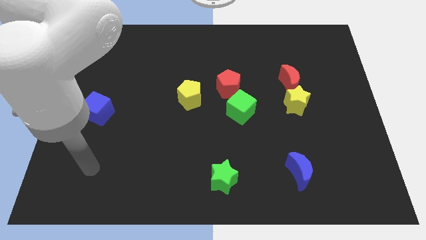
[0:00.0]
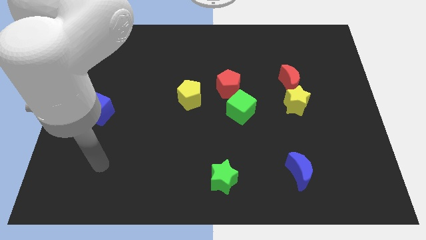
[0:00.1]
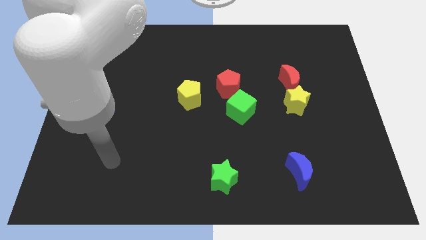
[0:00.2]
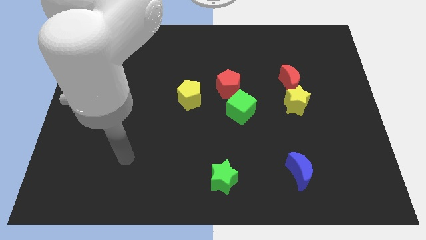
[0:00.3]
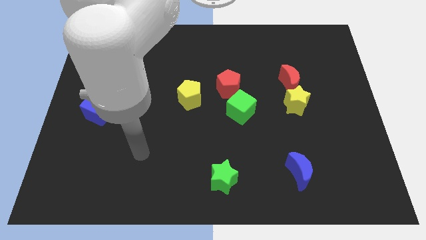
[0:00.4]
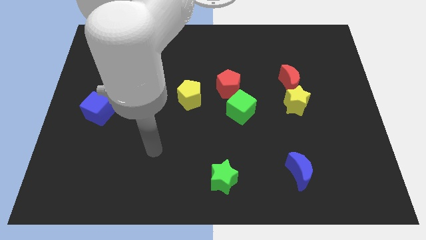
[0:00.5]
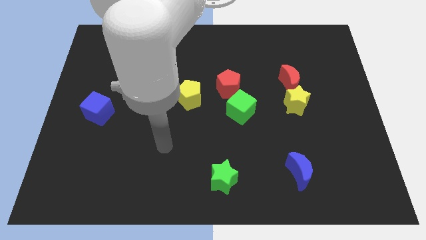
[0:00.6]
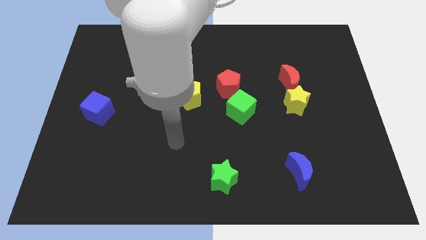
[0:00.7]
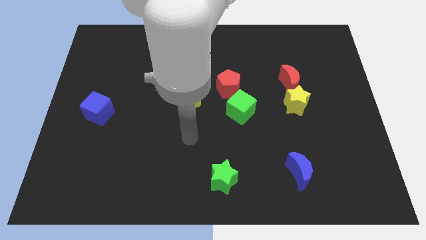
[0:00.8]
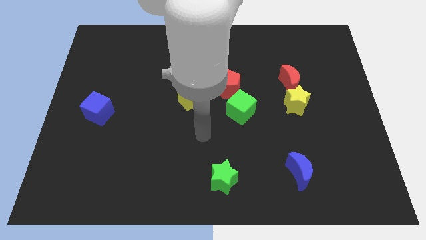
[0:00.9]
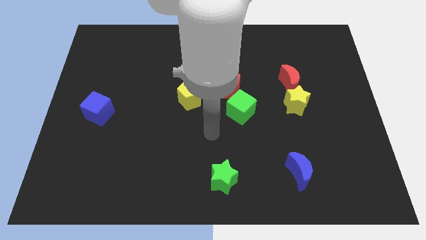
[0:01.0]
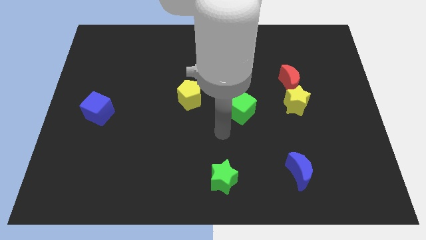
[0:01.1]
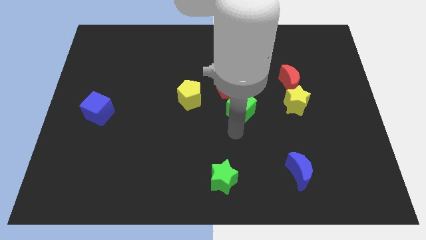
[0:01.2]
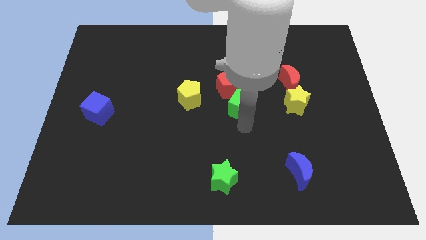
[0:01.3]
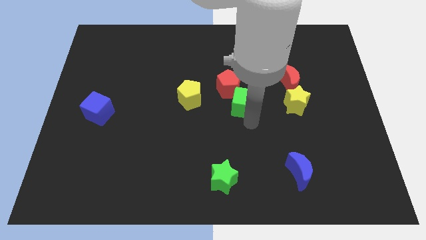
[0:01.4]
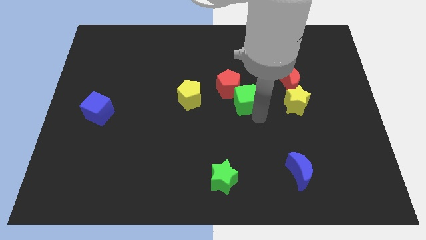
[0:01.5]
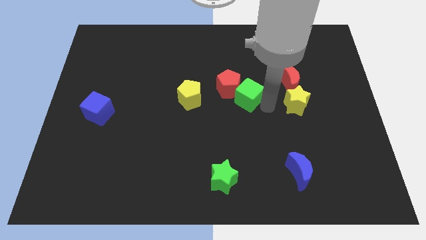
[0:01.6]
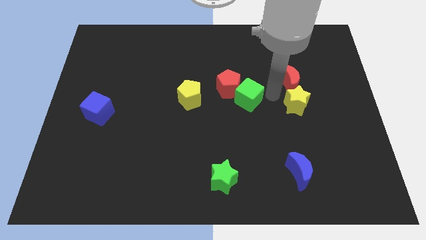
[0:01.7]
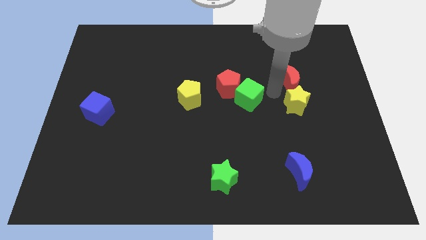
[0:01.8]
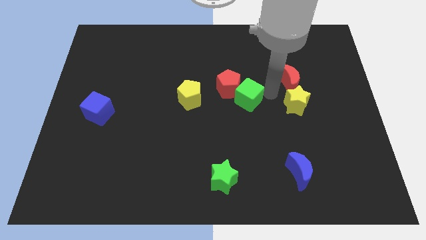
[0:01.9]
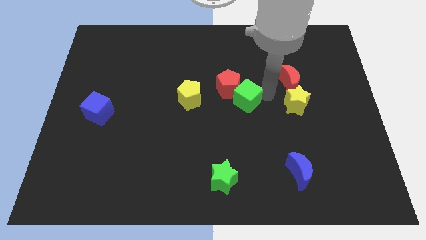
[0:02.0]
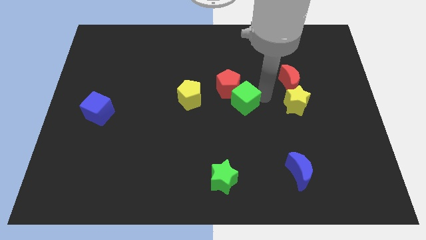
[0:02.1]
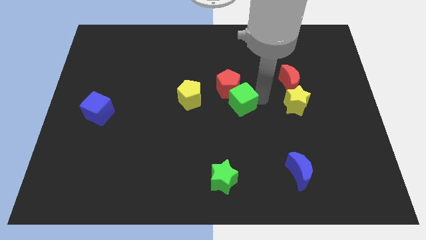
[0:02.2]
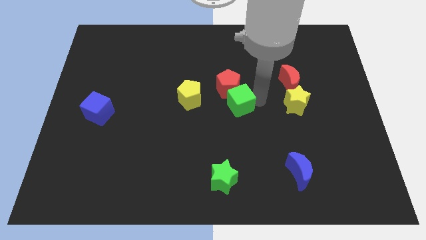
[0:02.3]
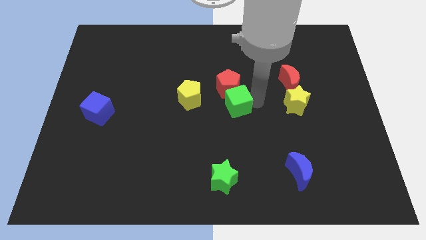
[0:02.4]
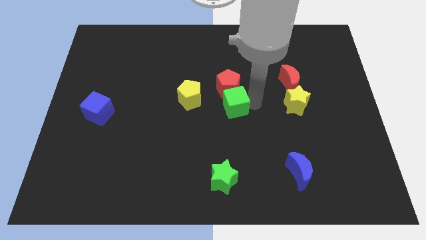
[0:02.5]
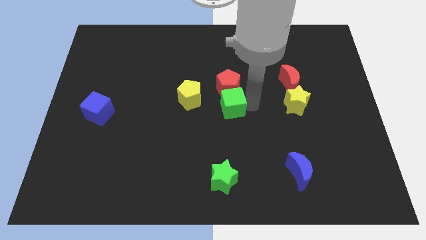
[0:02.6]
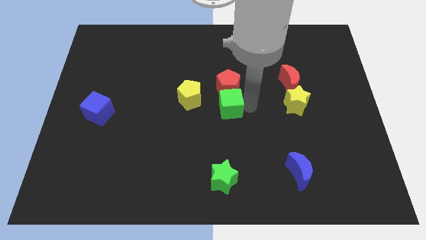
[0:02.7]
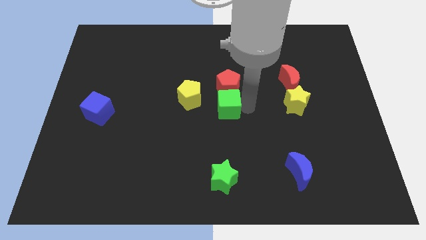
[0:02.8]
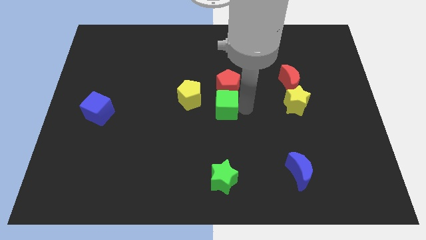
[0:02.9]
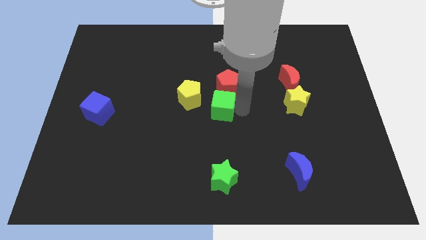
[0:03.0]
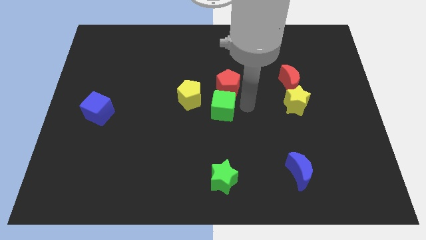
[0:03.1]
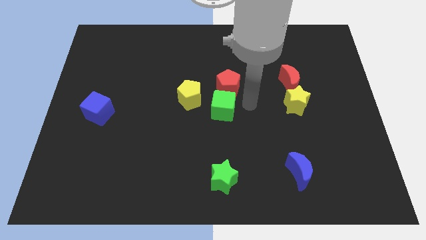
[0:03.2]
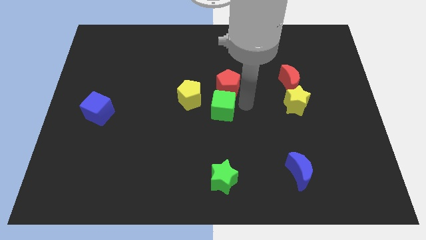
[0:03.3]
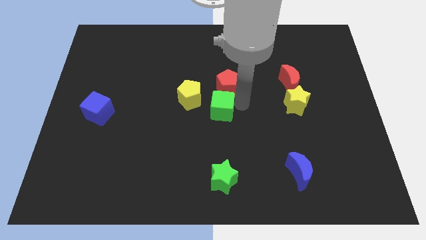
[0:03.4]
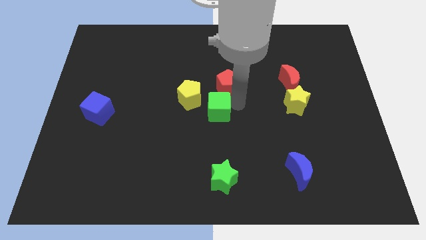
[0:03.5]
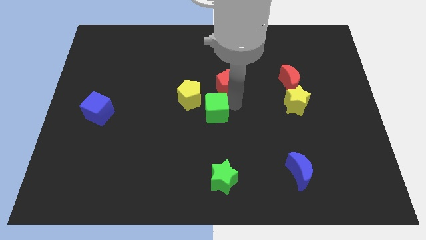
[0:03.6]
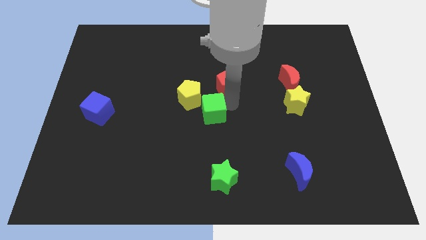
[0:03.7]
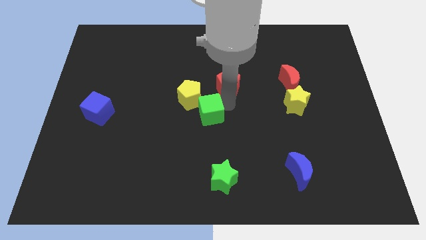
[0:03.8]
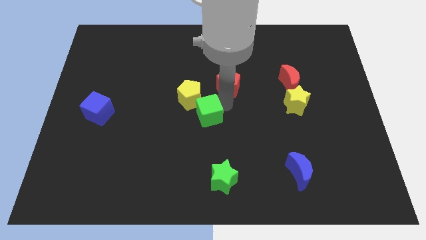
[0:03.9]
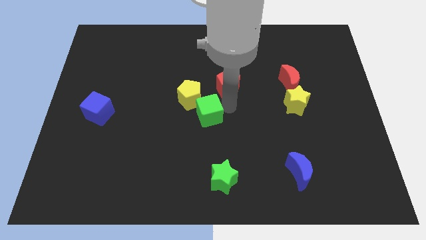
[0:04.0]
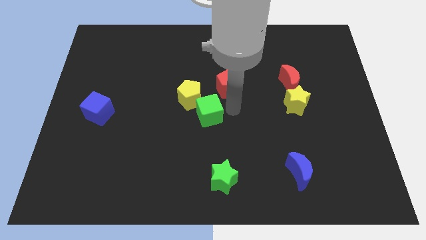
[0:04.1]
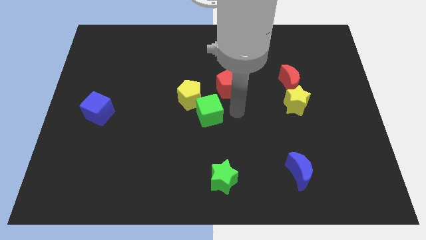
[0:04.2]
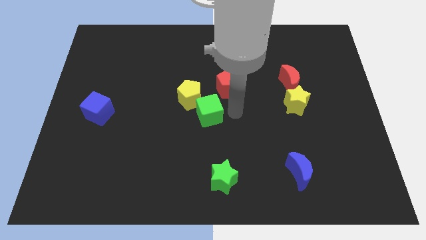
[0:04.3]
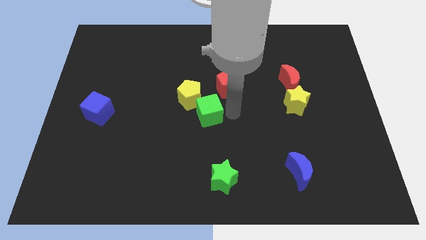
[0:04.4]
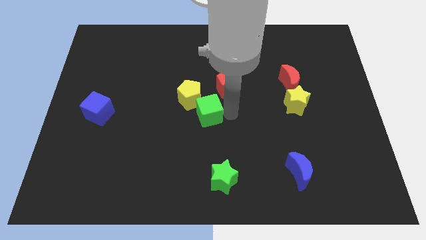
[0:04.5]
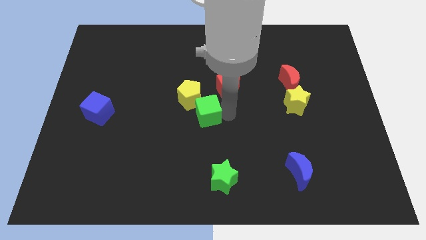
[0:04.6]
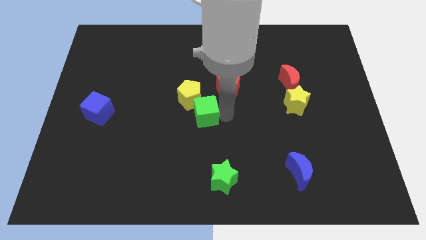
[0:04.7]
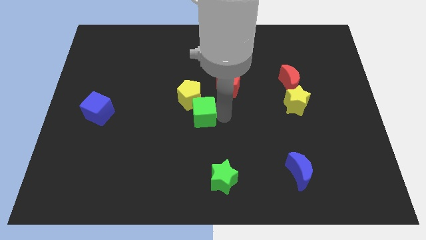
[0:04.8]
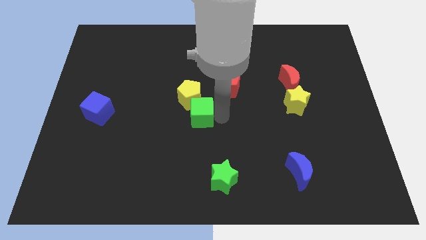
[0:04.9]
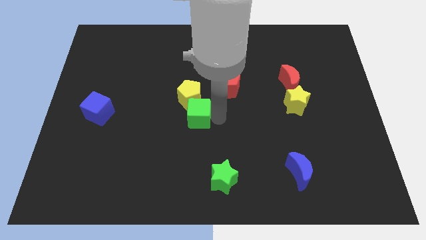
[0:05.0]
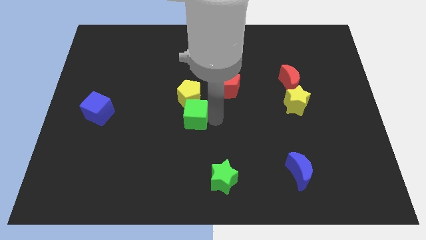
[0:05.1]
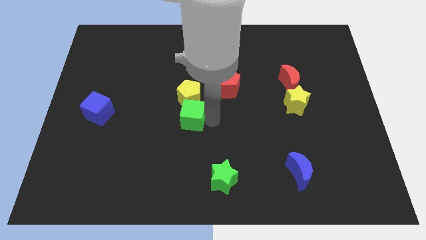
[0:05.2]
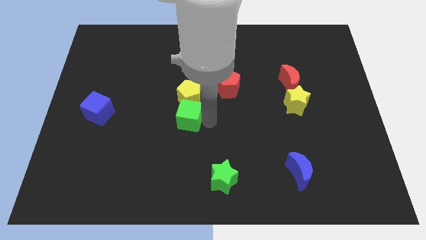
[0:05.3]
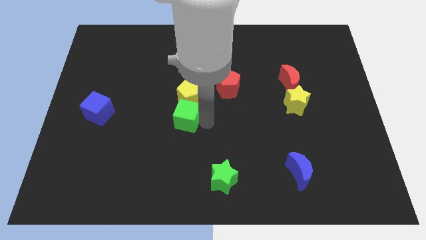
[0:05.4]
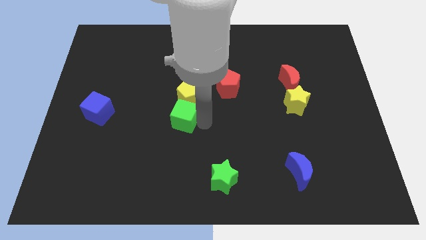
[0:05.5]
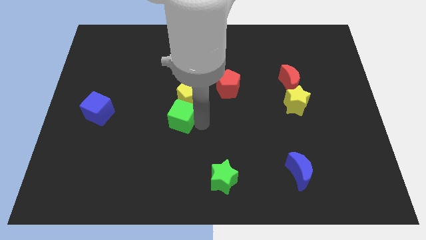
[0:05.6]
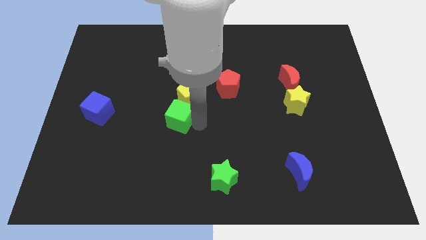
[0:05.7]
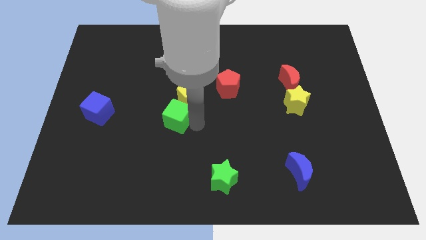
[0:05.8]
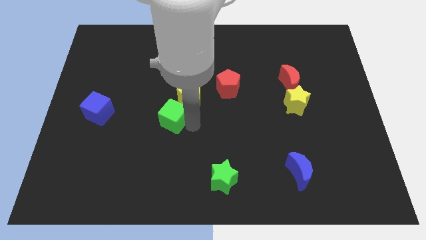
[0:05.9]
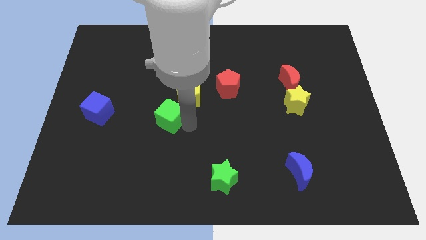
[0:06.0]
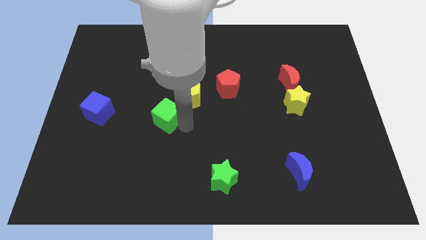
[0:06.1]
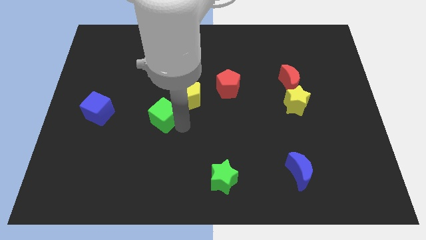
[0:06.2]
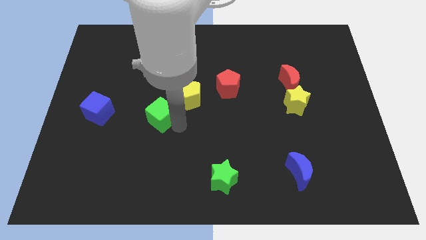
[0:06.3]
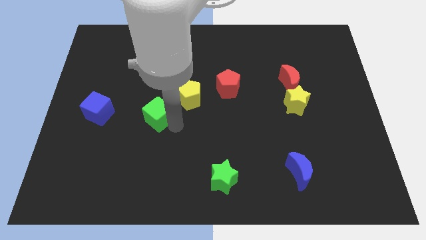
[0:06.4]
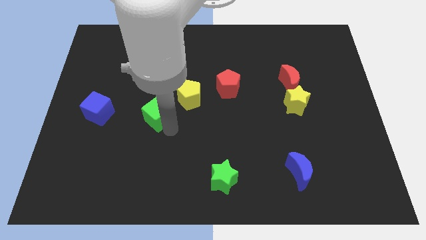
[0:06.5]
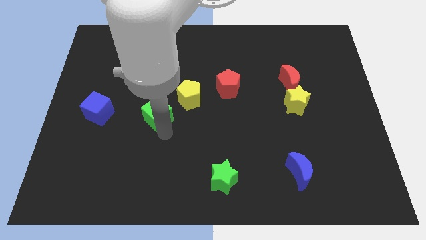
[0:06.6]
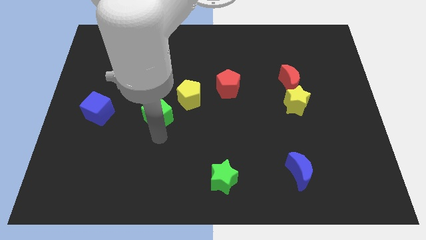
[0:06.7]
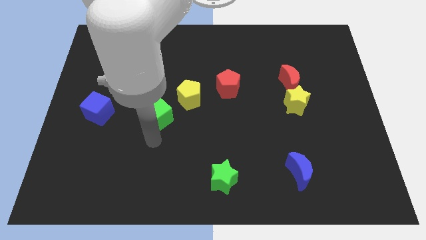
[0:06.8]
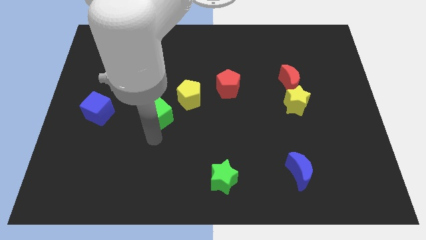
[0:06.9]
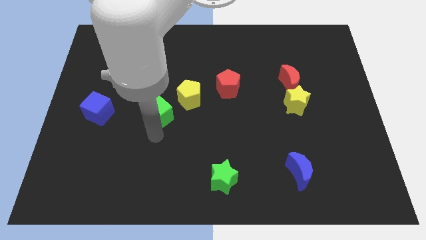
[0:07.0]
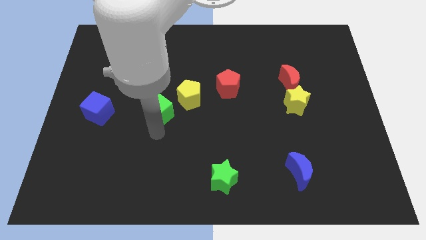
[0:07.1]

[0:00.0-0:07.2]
push the green cube left of the yellow pentagon

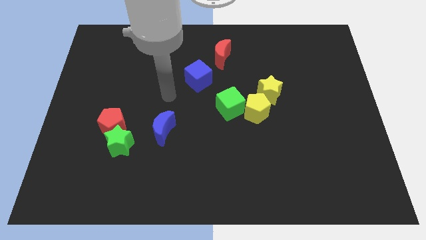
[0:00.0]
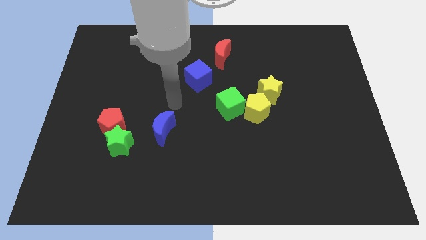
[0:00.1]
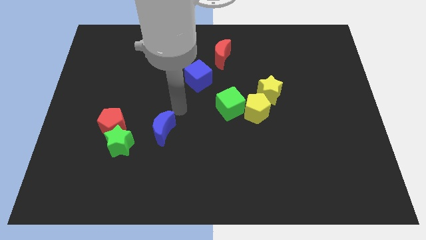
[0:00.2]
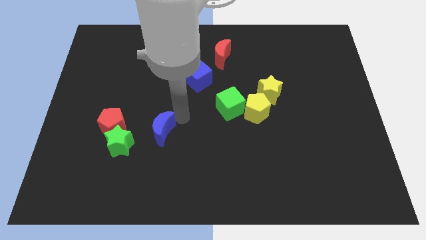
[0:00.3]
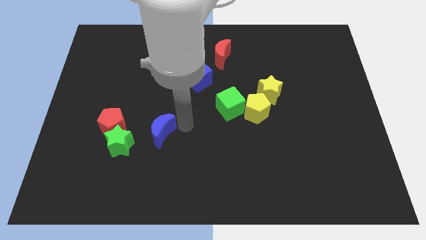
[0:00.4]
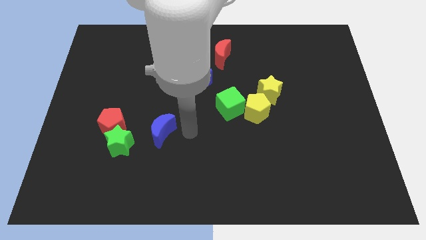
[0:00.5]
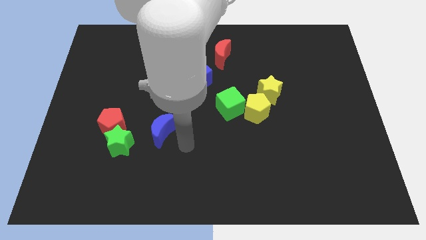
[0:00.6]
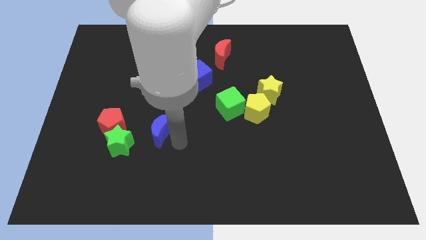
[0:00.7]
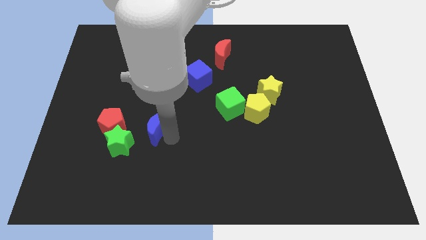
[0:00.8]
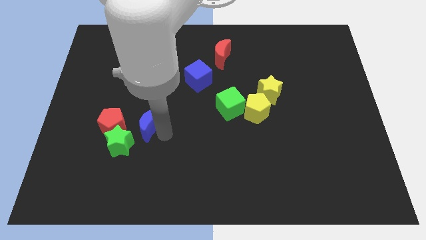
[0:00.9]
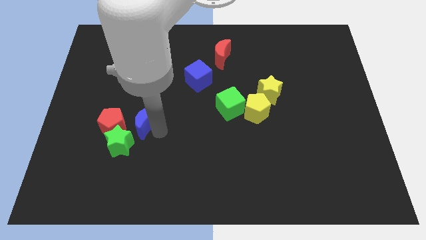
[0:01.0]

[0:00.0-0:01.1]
put the blue moon to the top of the green star
